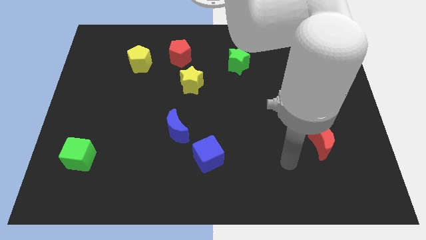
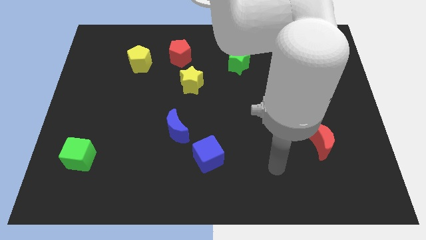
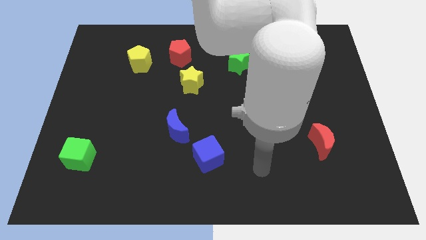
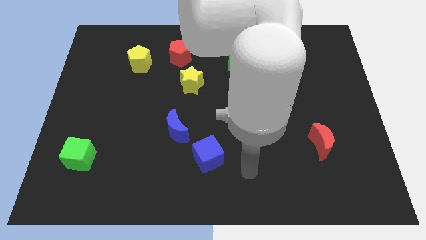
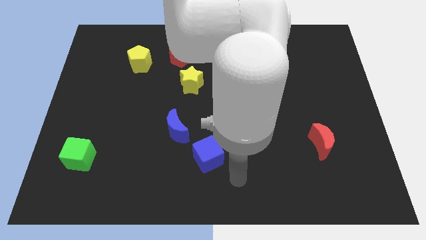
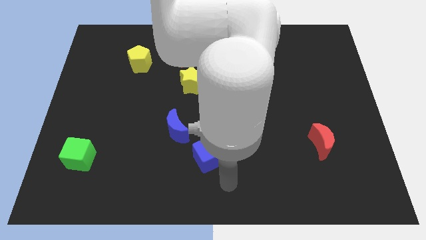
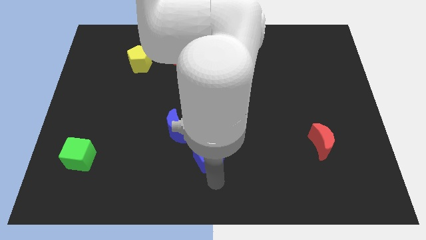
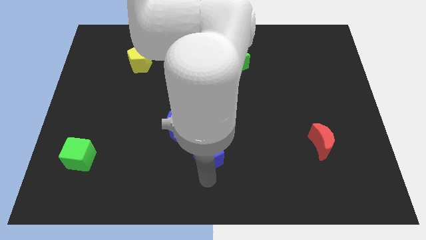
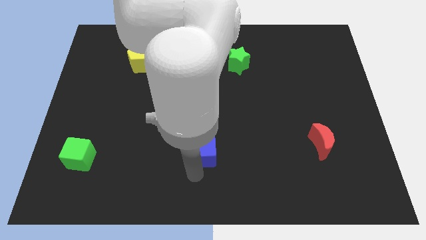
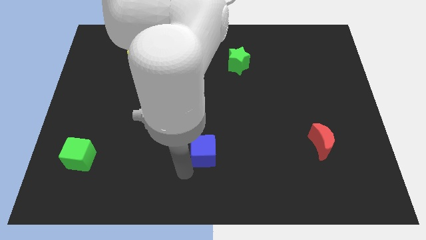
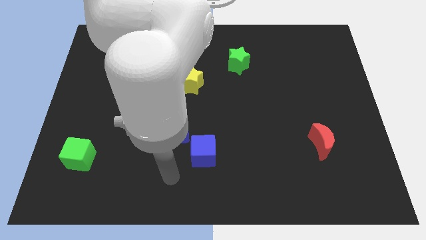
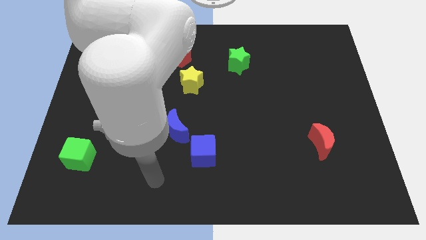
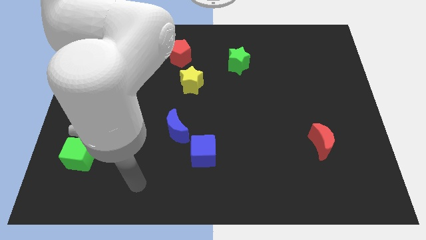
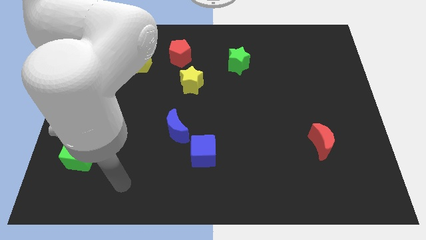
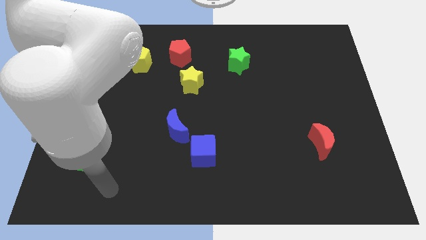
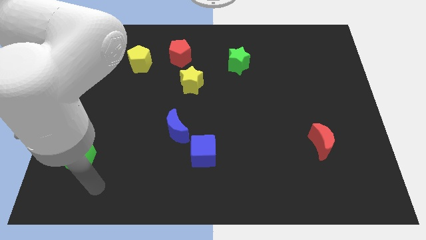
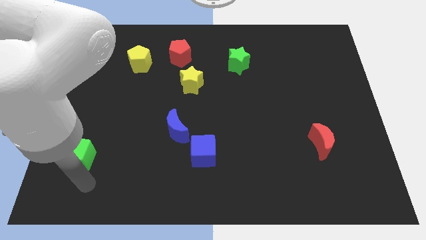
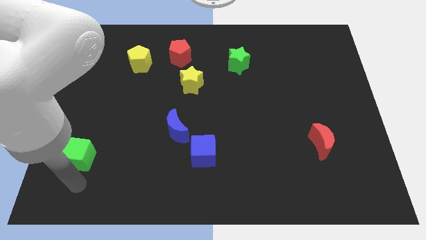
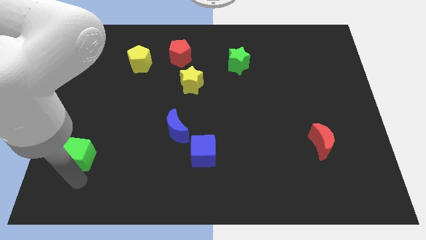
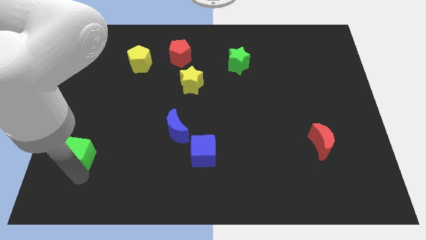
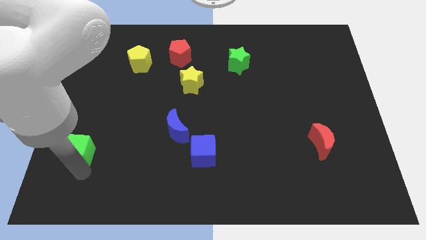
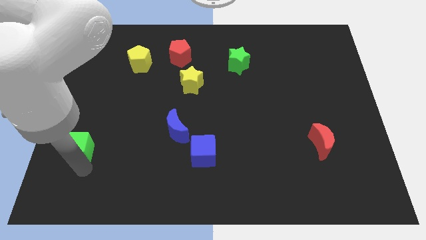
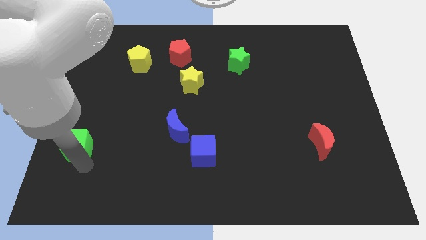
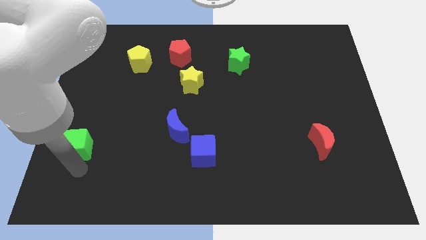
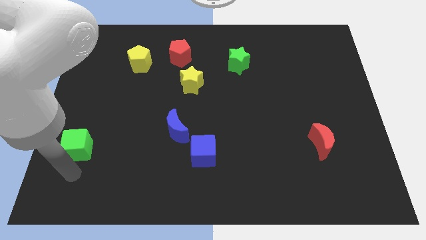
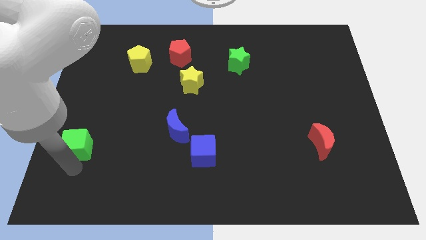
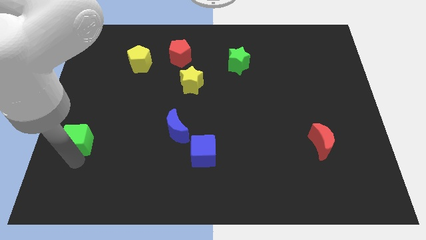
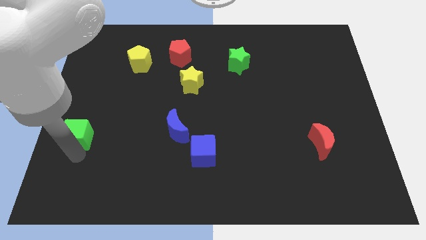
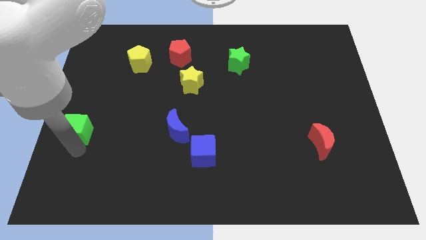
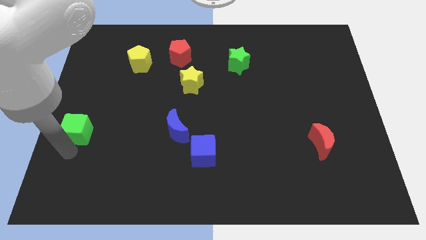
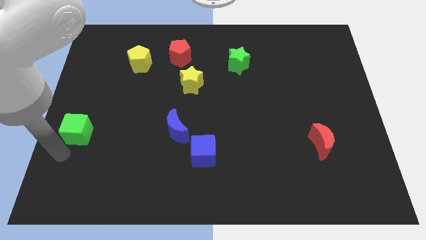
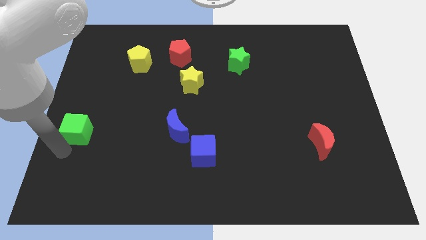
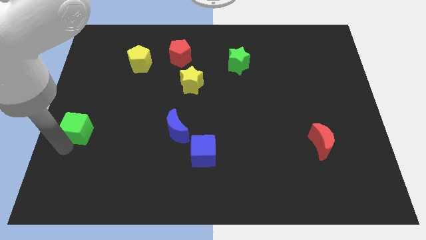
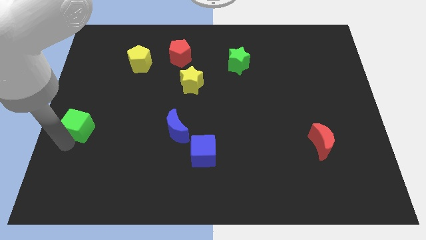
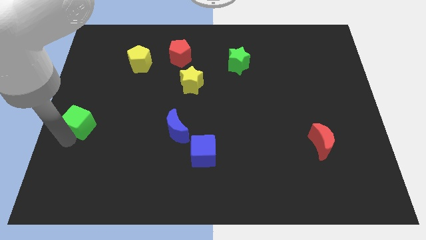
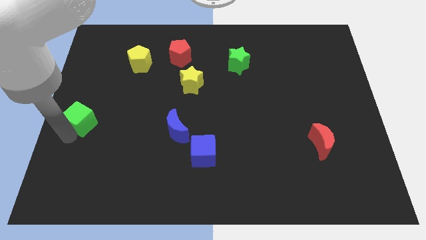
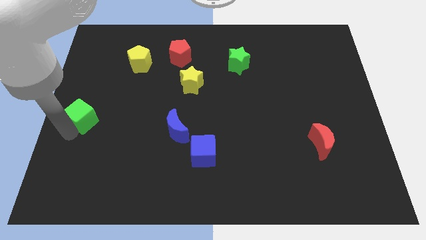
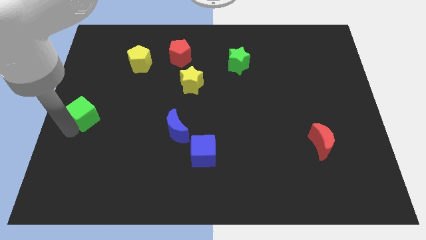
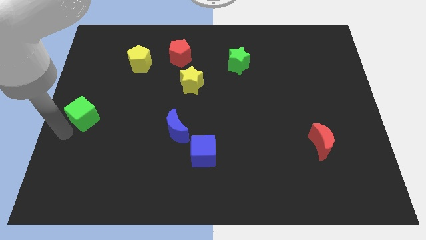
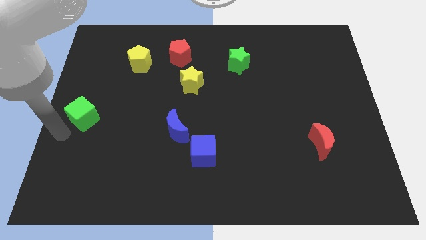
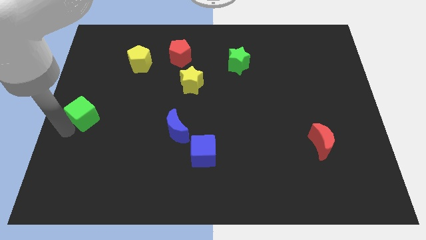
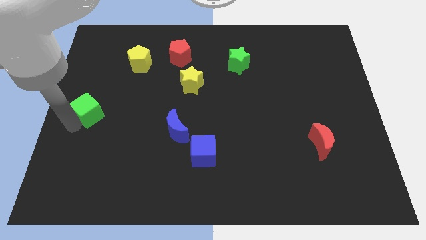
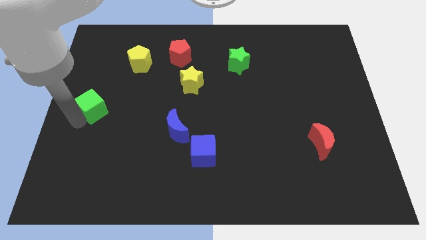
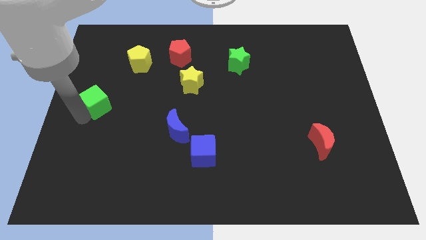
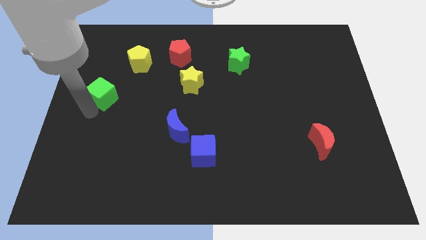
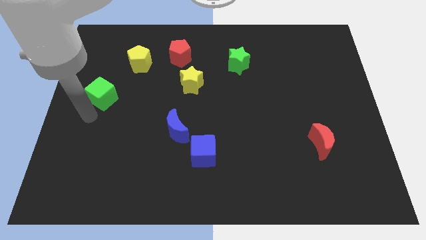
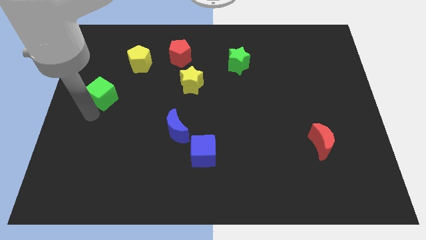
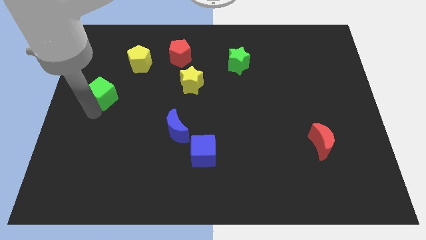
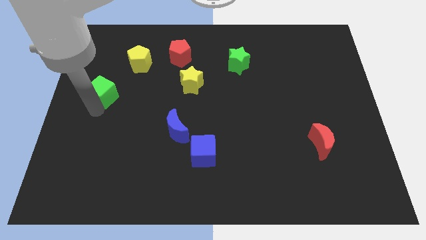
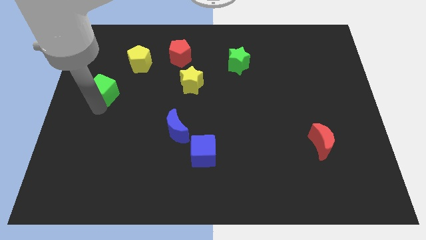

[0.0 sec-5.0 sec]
slide the green cube to the bottom left of the yellow pentagon

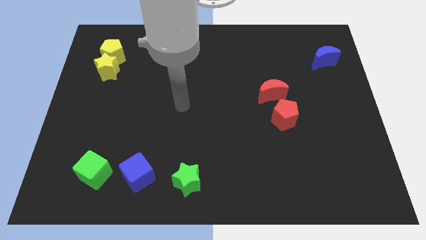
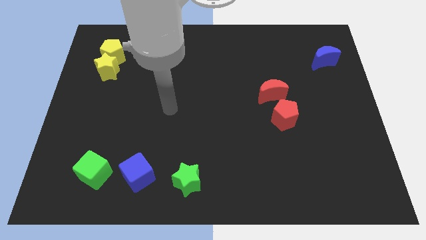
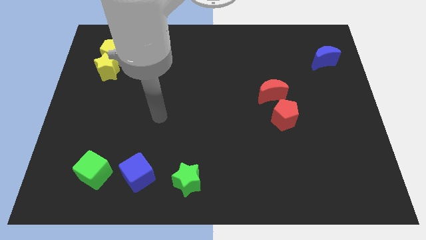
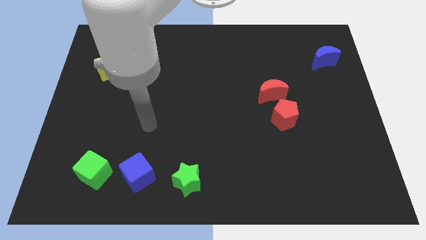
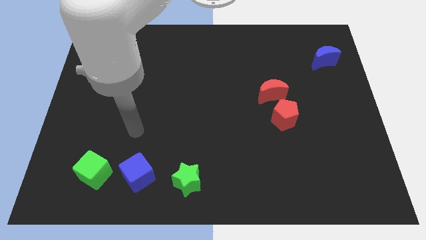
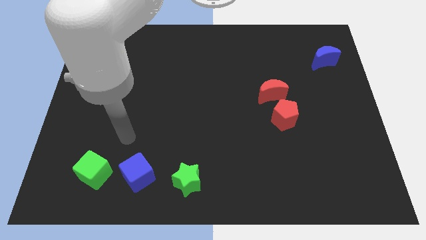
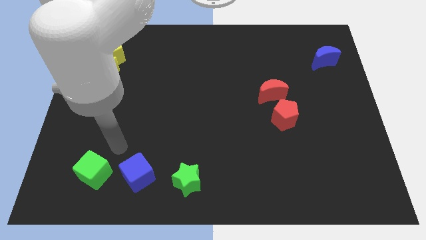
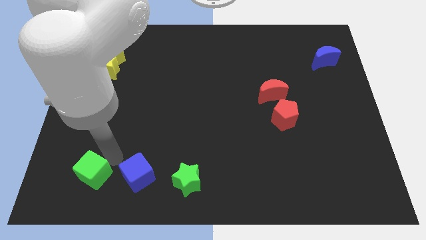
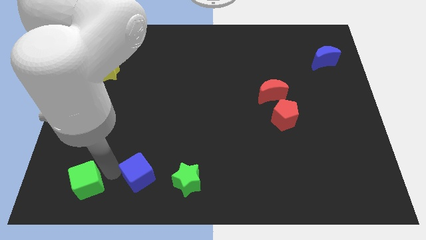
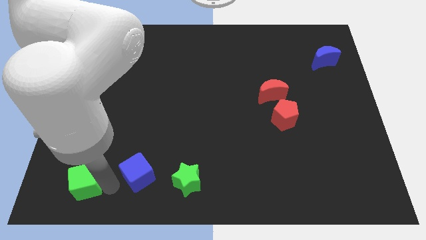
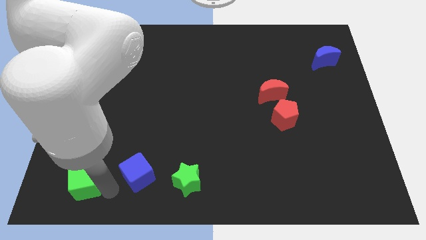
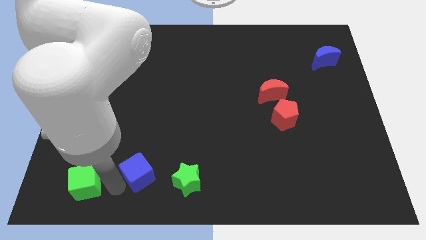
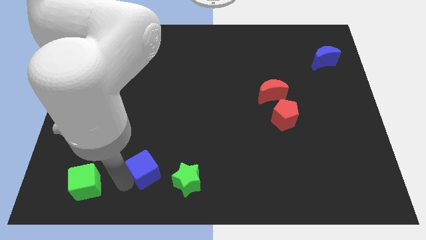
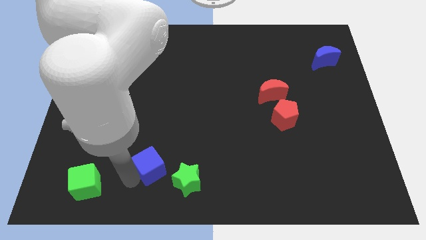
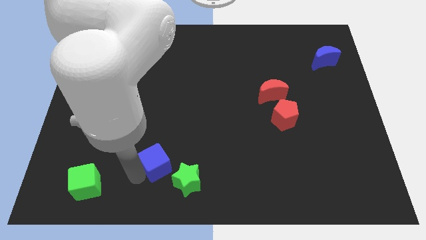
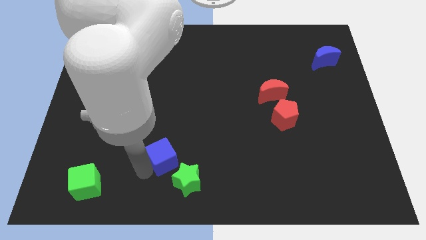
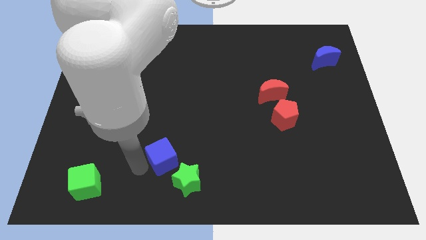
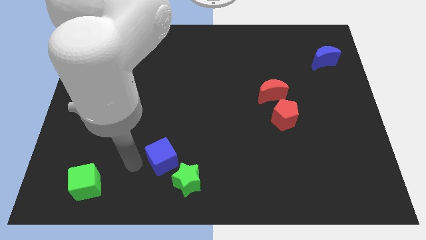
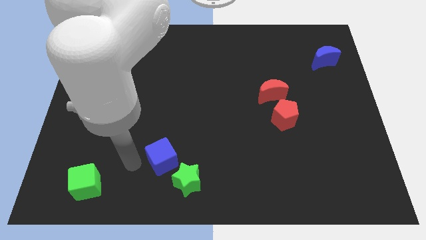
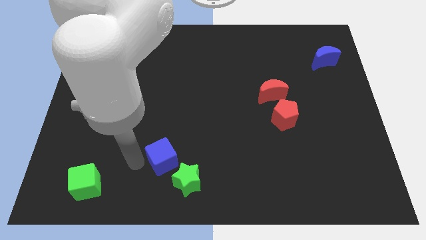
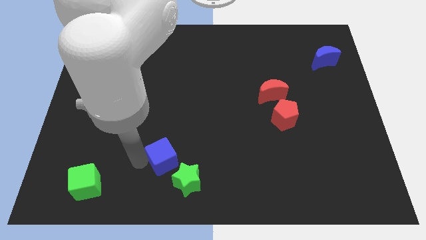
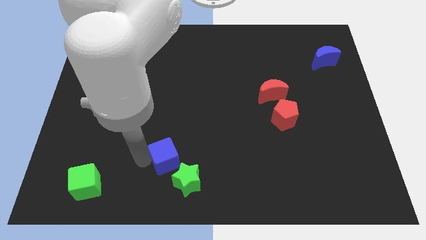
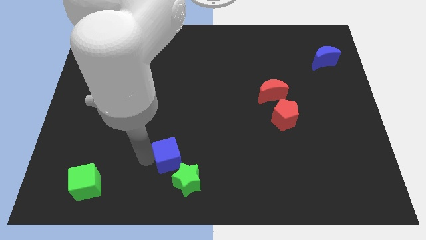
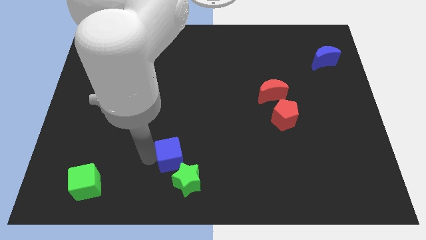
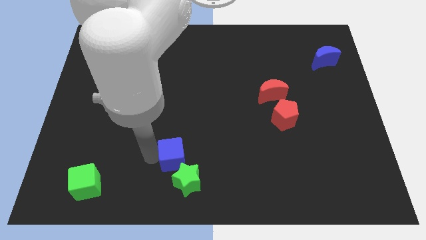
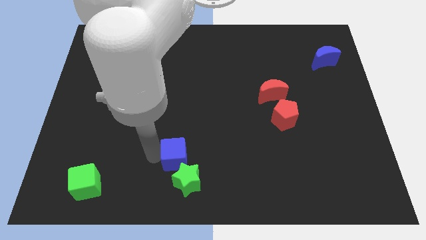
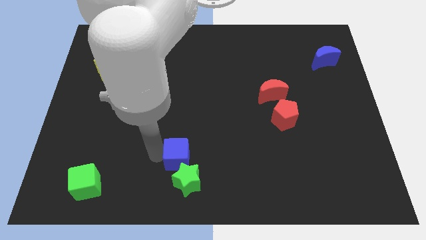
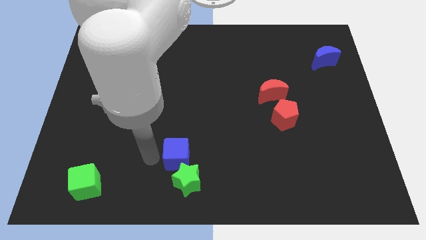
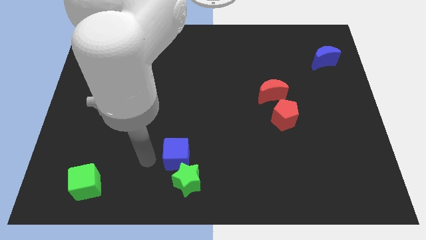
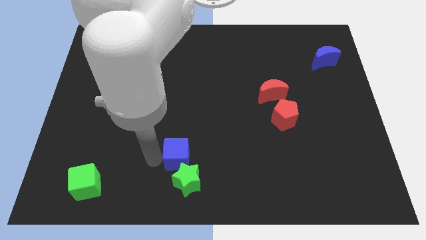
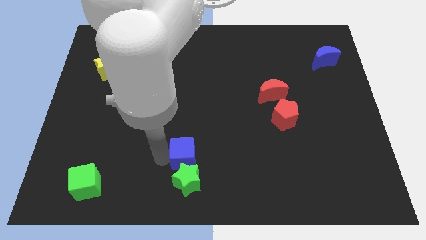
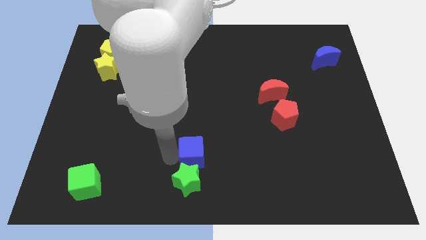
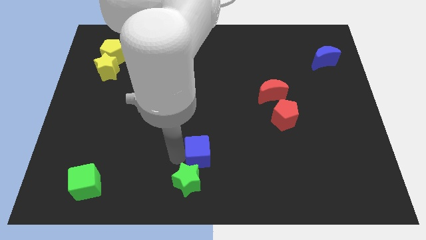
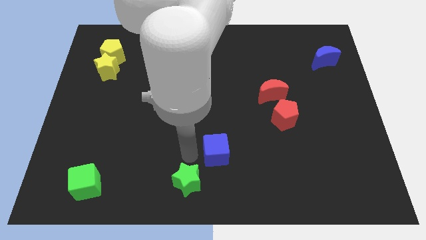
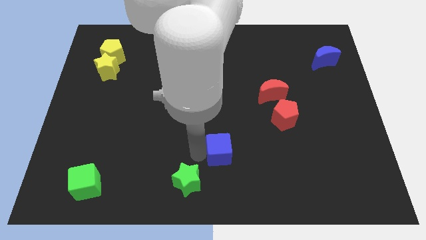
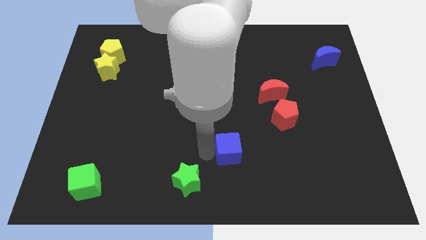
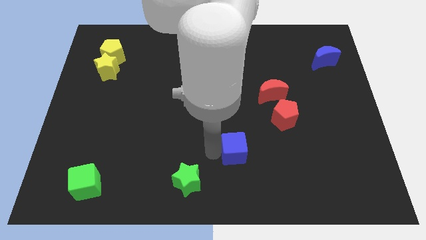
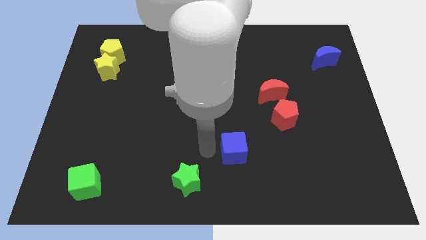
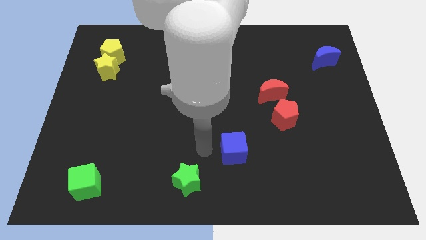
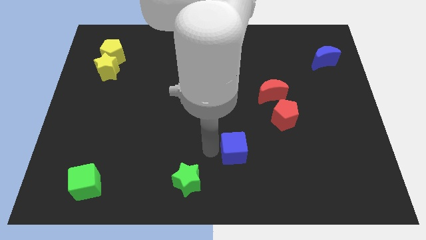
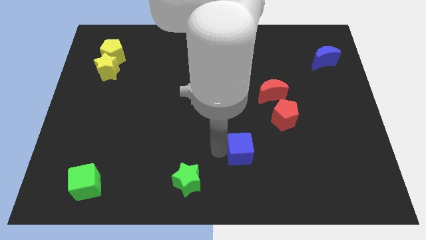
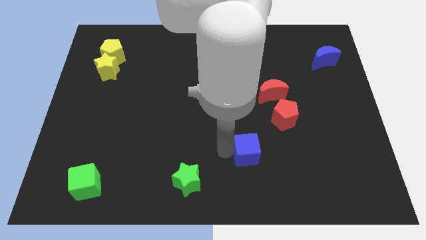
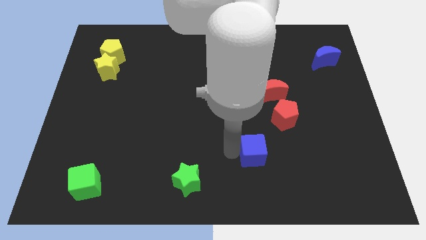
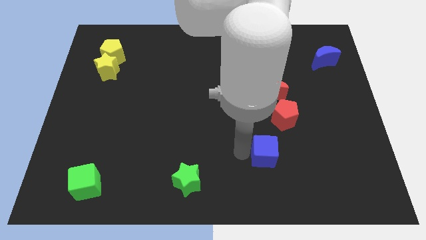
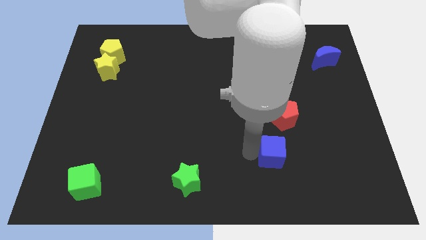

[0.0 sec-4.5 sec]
move the blue cube to the bottom of the red pentagon
